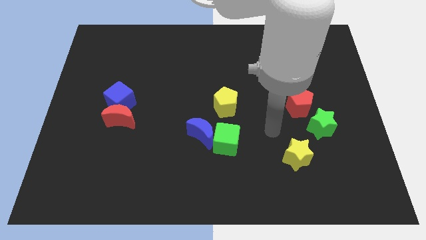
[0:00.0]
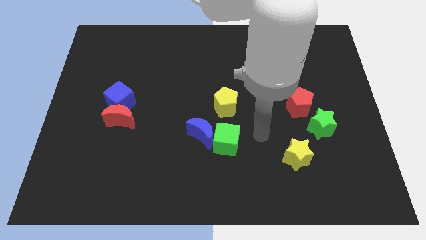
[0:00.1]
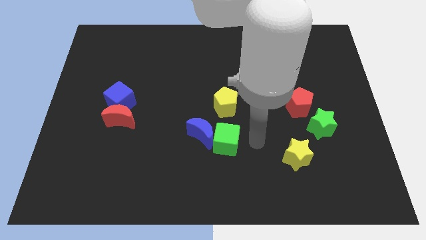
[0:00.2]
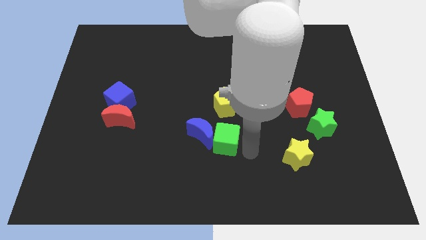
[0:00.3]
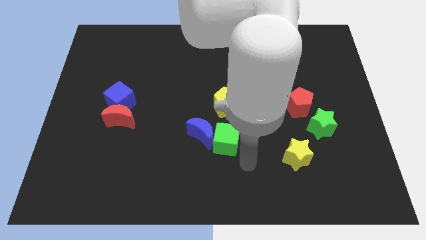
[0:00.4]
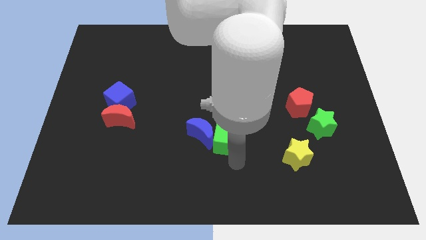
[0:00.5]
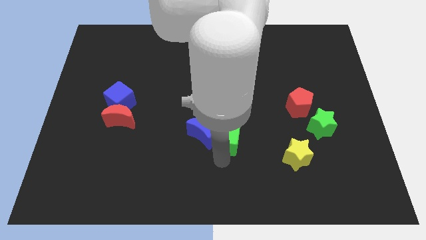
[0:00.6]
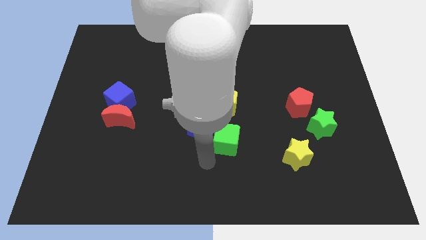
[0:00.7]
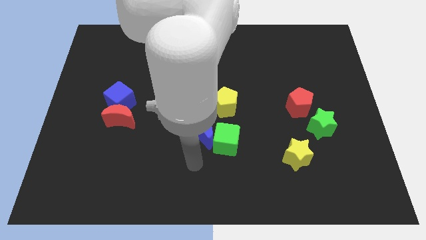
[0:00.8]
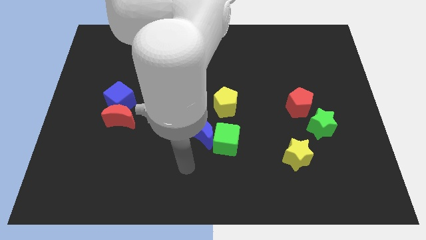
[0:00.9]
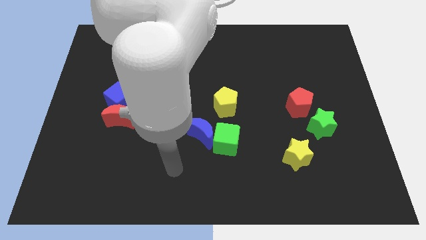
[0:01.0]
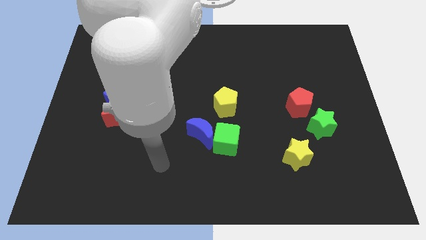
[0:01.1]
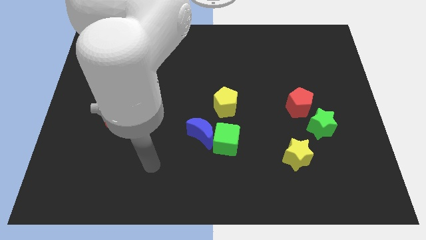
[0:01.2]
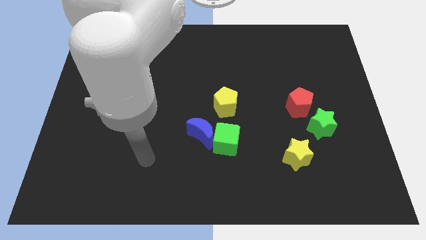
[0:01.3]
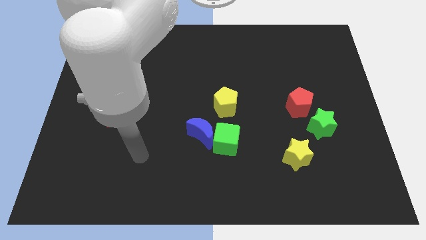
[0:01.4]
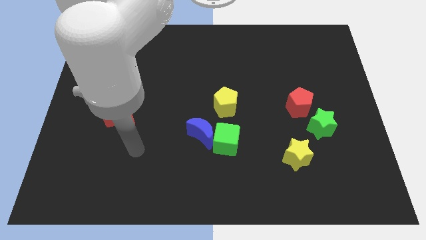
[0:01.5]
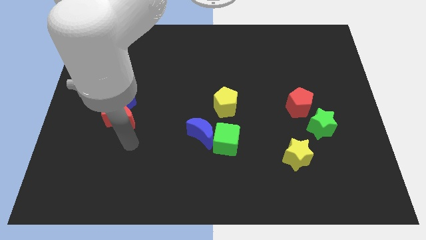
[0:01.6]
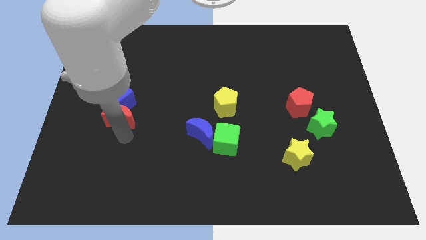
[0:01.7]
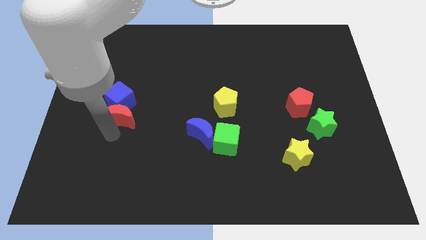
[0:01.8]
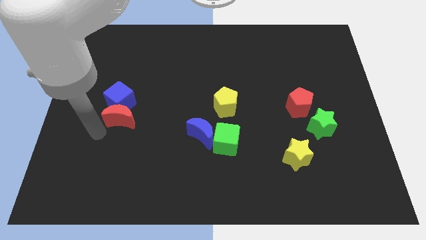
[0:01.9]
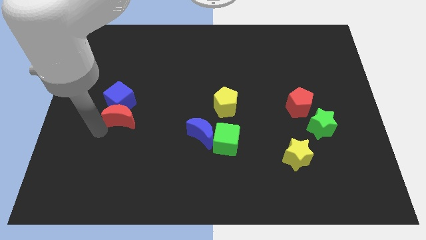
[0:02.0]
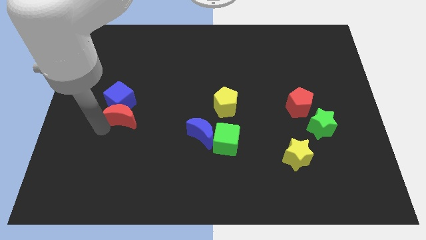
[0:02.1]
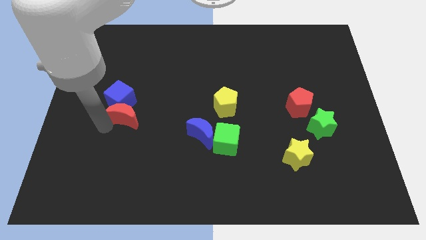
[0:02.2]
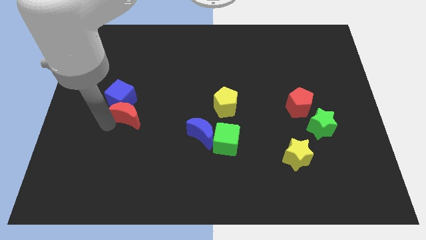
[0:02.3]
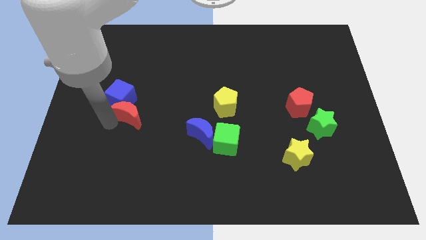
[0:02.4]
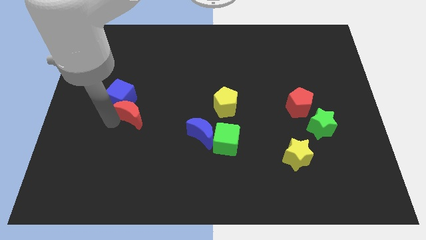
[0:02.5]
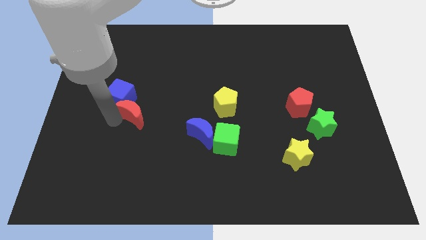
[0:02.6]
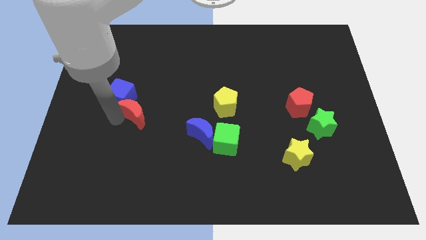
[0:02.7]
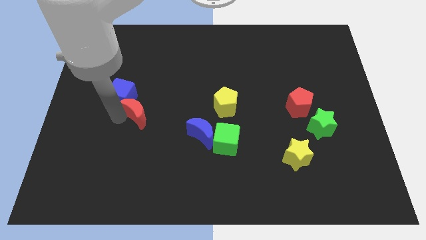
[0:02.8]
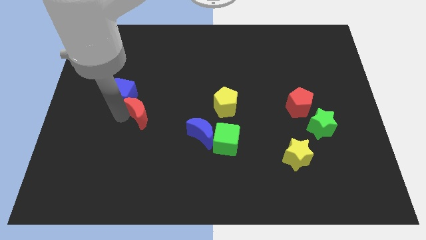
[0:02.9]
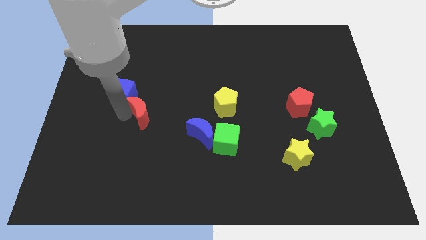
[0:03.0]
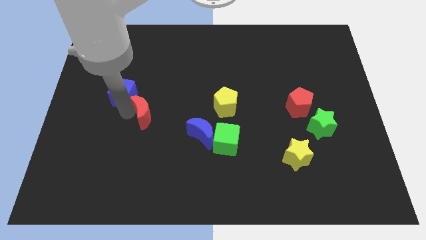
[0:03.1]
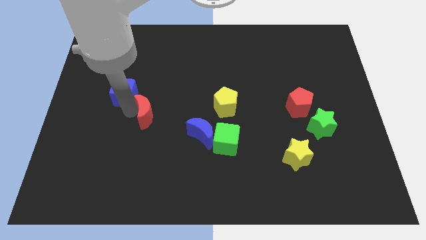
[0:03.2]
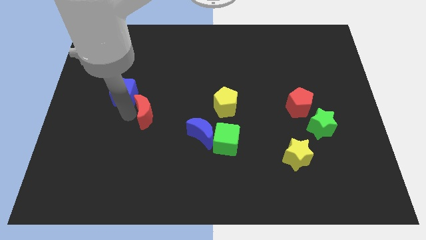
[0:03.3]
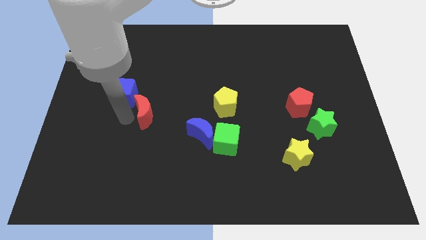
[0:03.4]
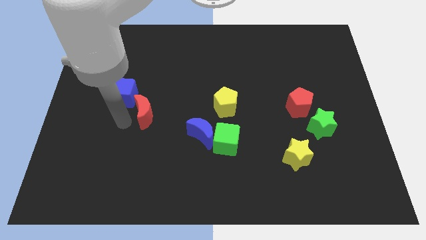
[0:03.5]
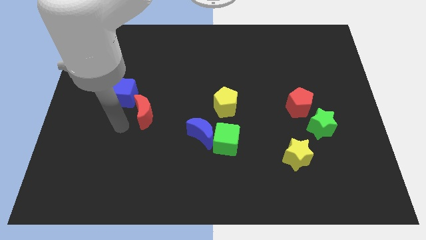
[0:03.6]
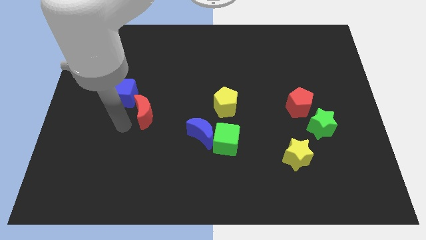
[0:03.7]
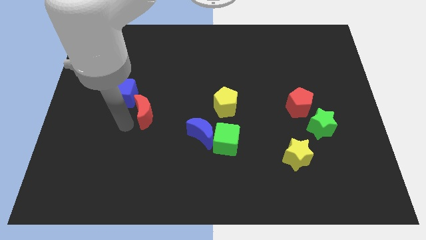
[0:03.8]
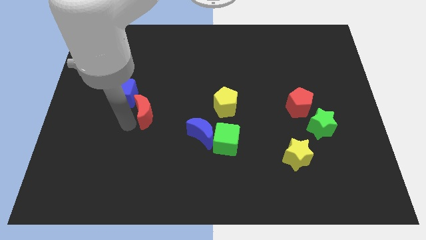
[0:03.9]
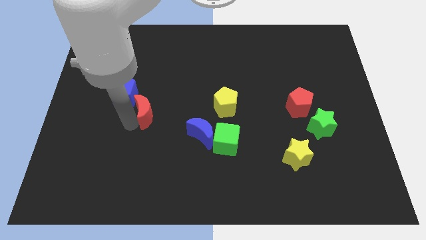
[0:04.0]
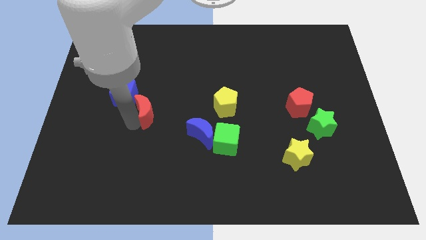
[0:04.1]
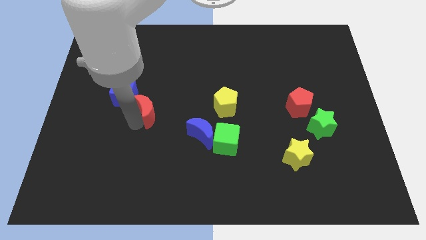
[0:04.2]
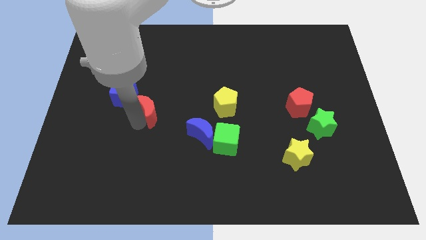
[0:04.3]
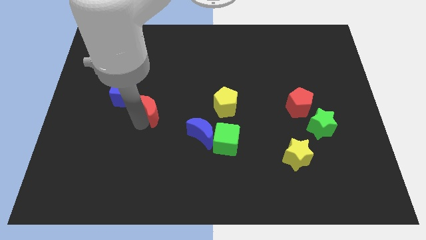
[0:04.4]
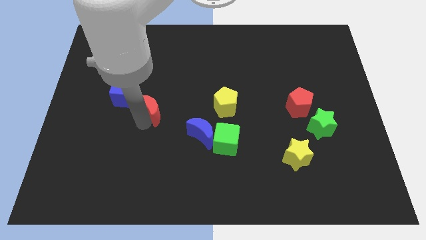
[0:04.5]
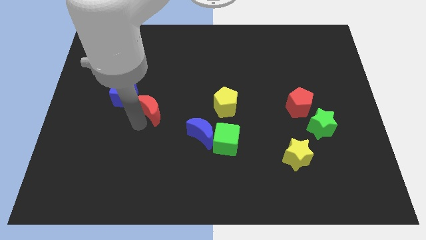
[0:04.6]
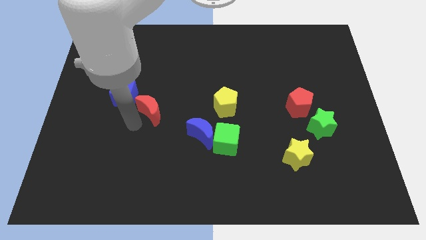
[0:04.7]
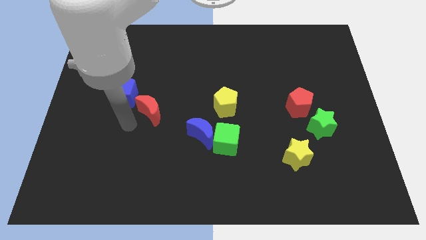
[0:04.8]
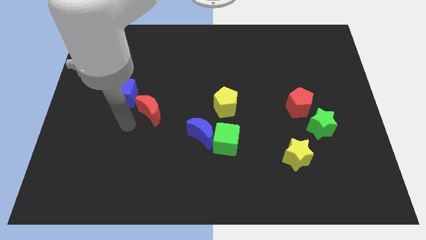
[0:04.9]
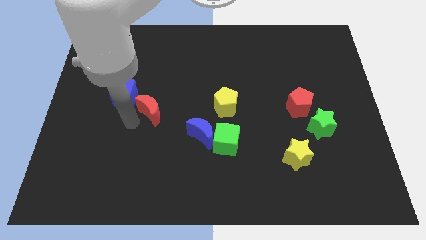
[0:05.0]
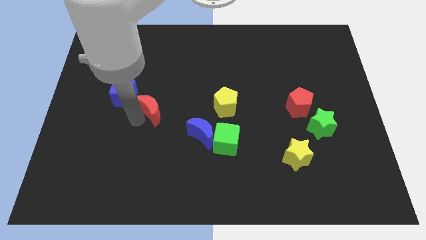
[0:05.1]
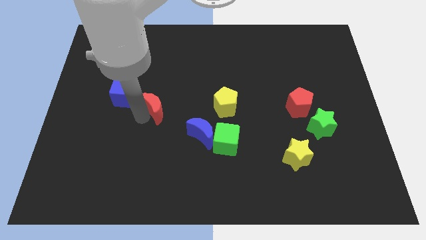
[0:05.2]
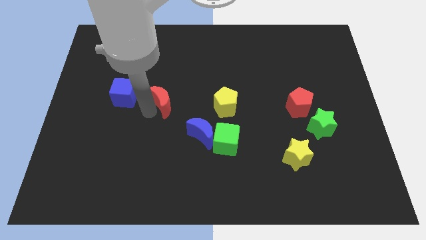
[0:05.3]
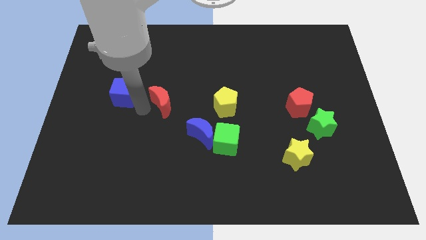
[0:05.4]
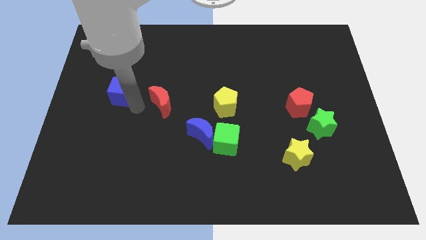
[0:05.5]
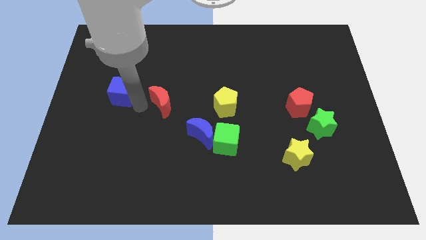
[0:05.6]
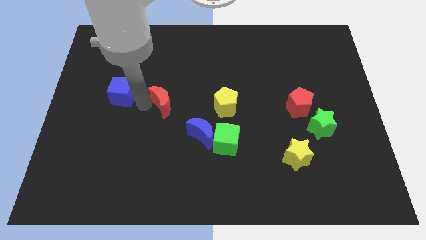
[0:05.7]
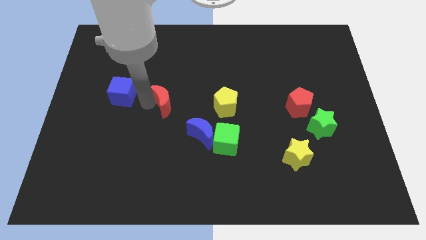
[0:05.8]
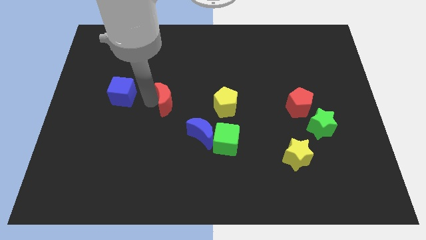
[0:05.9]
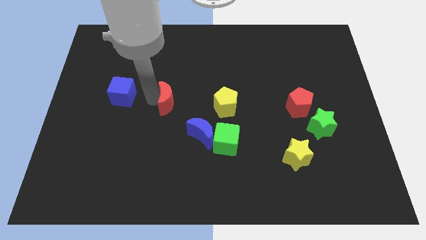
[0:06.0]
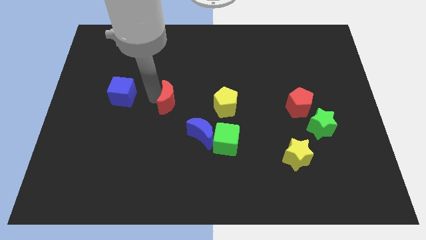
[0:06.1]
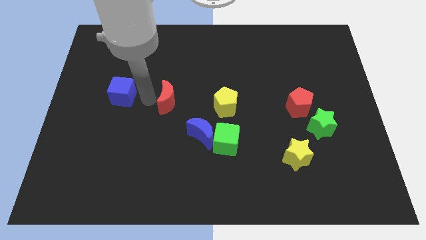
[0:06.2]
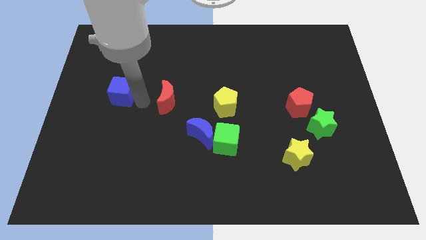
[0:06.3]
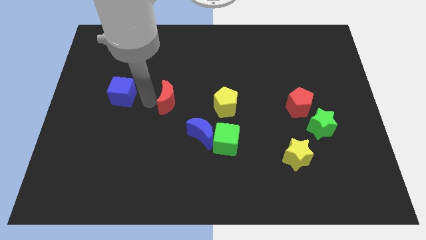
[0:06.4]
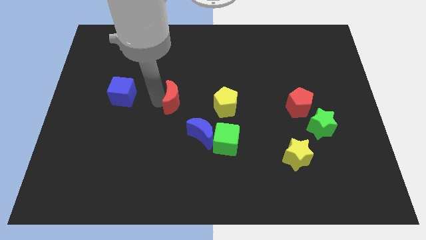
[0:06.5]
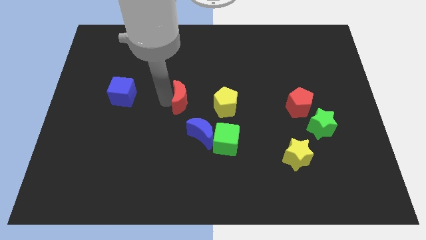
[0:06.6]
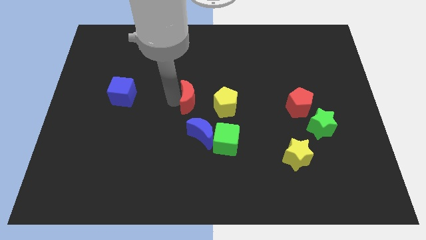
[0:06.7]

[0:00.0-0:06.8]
put the red moon above the blue moon

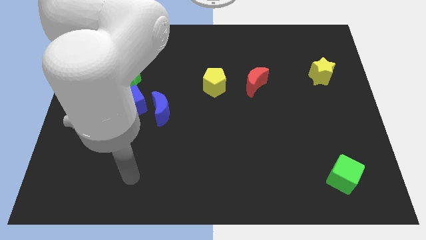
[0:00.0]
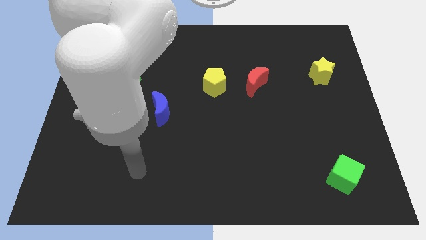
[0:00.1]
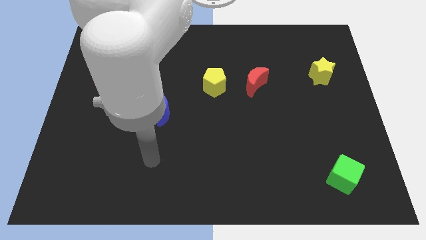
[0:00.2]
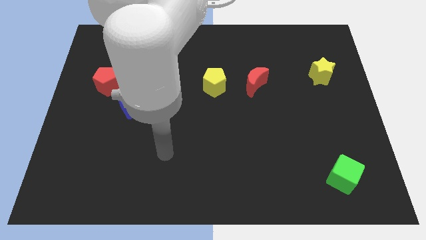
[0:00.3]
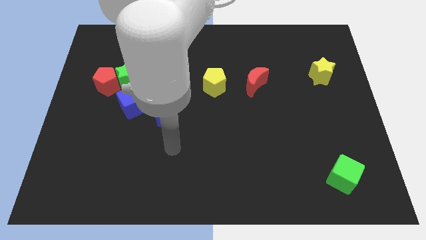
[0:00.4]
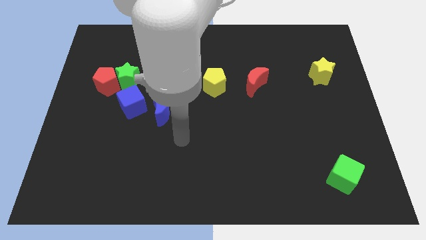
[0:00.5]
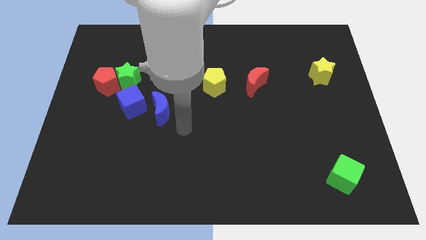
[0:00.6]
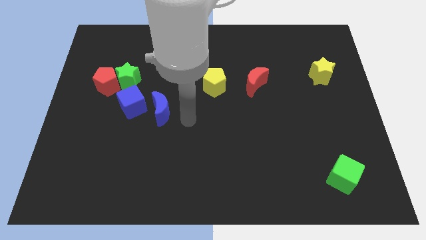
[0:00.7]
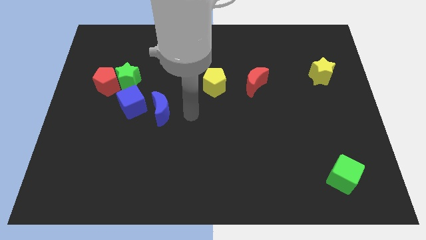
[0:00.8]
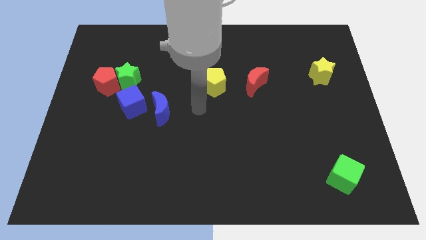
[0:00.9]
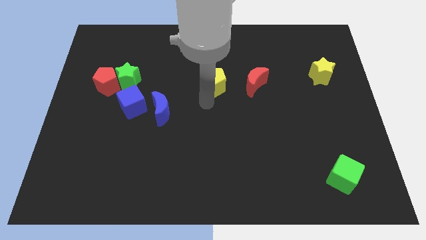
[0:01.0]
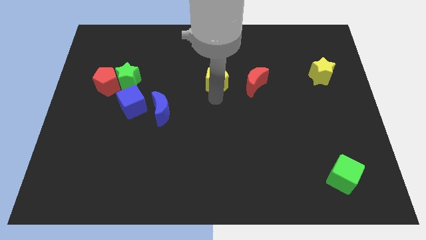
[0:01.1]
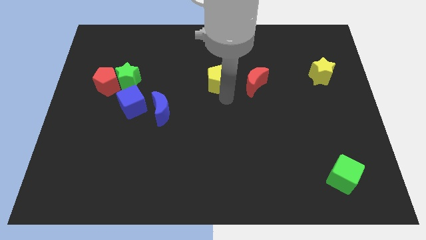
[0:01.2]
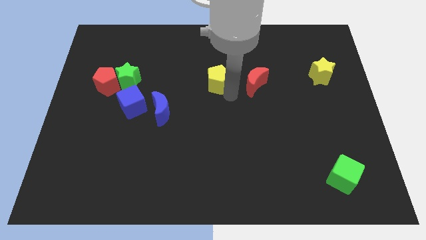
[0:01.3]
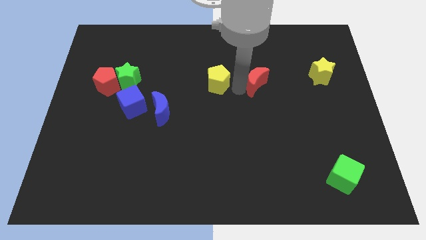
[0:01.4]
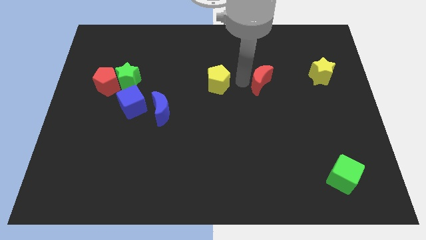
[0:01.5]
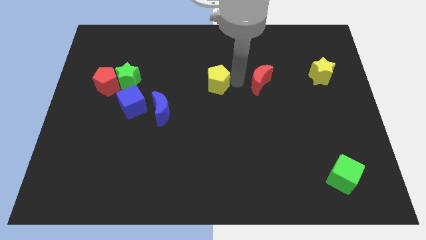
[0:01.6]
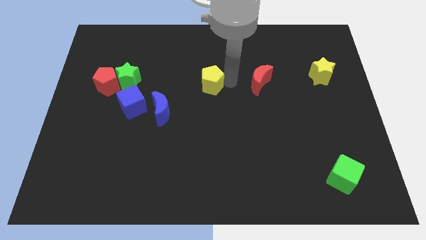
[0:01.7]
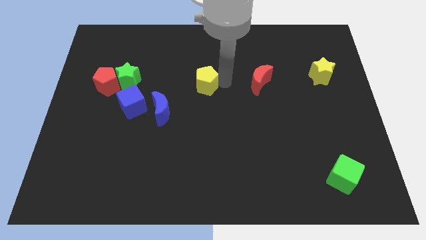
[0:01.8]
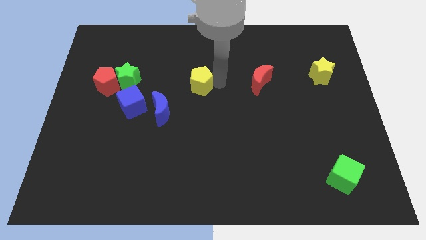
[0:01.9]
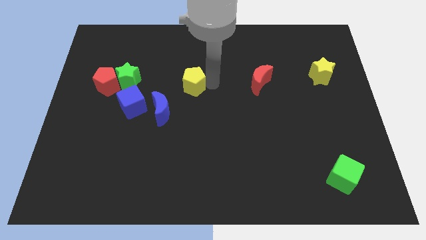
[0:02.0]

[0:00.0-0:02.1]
push the yellow pentagon just right of the green star
